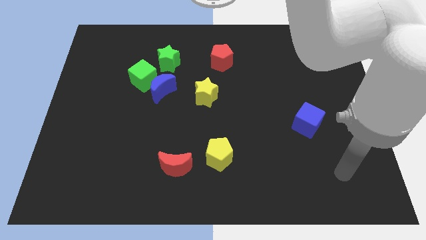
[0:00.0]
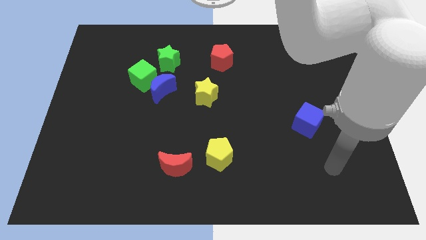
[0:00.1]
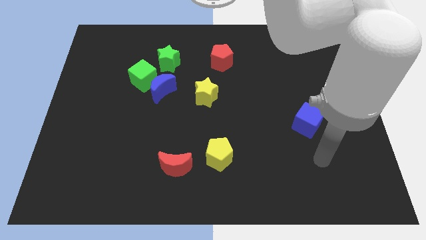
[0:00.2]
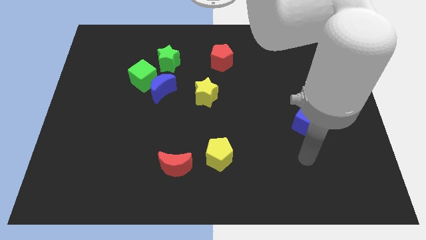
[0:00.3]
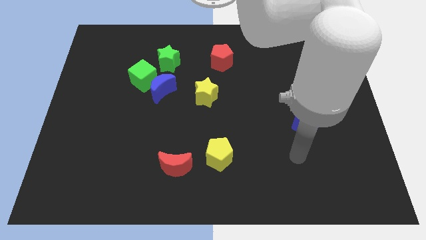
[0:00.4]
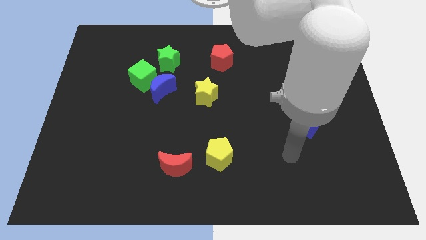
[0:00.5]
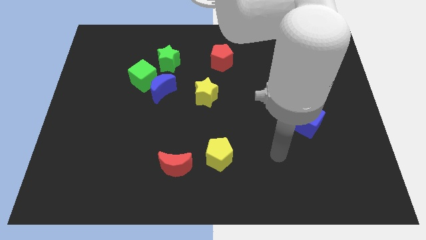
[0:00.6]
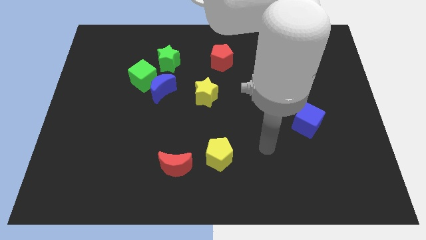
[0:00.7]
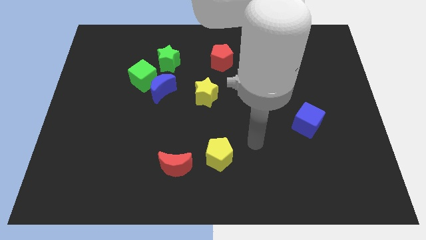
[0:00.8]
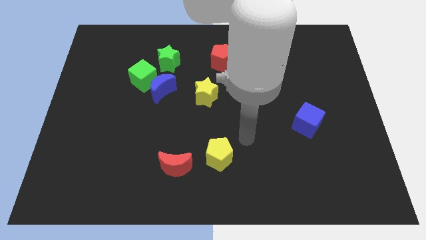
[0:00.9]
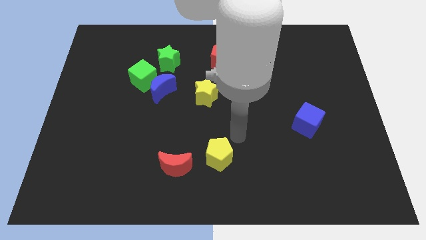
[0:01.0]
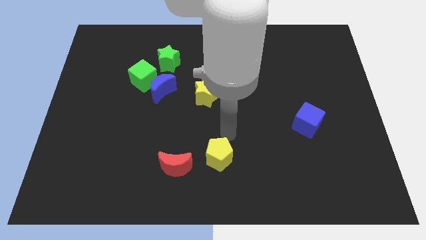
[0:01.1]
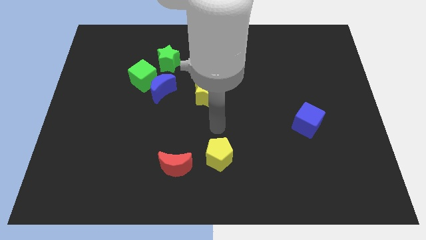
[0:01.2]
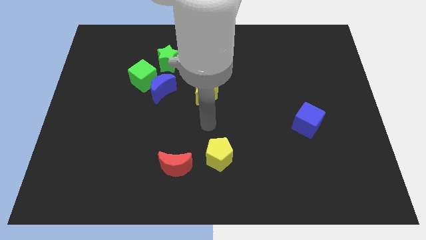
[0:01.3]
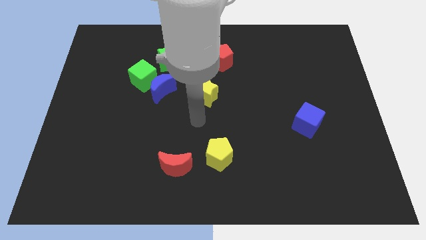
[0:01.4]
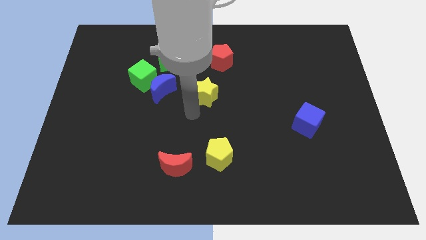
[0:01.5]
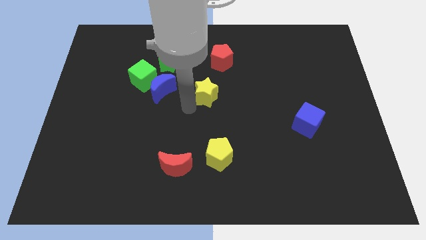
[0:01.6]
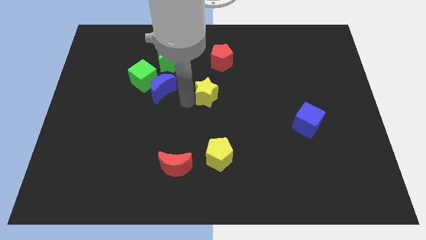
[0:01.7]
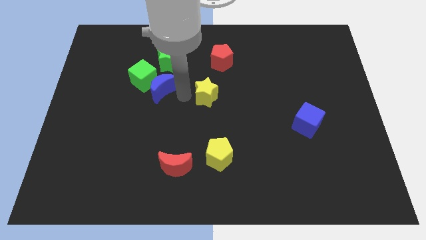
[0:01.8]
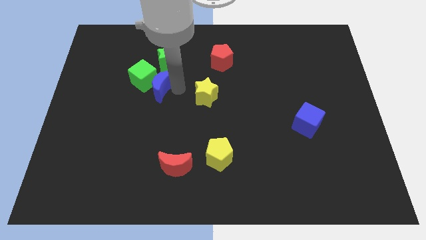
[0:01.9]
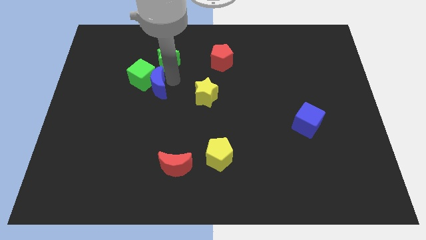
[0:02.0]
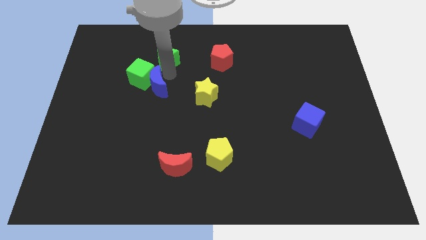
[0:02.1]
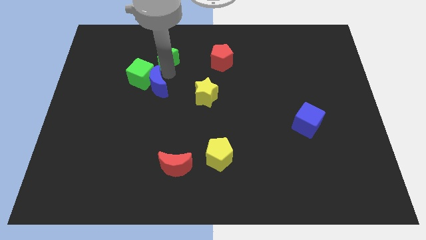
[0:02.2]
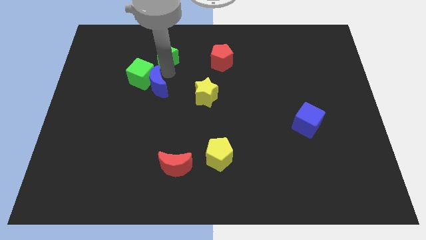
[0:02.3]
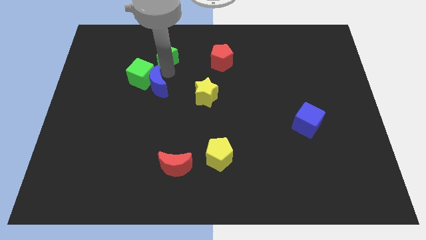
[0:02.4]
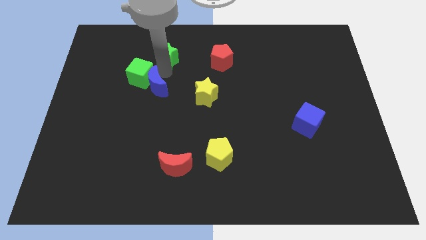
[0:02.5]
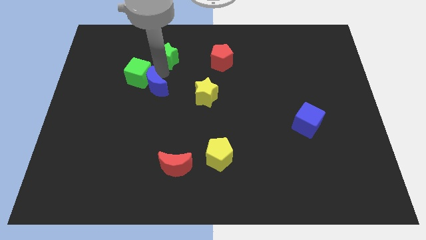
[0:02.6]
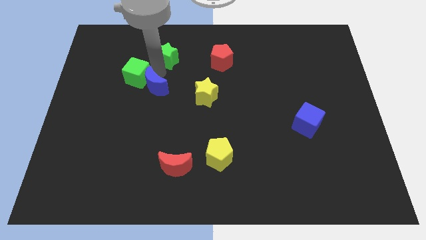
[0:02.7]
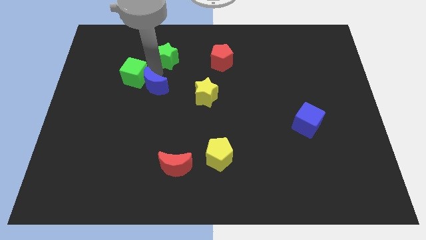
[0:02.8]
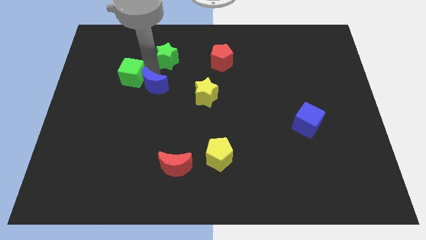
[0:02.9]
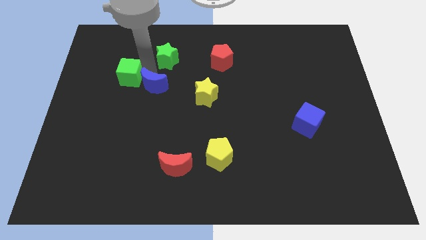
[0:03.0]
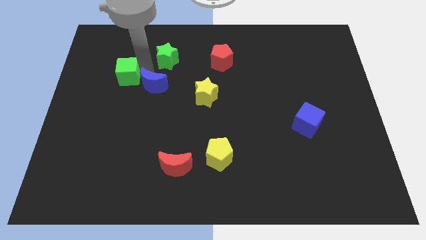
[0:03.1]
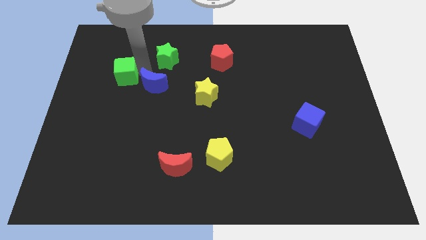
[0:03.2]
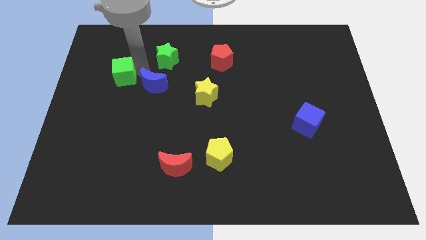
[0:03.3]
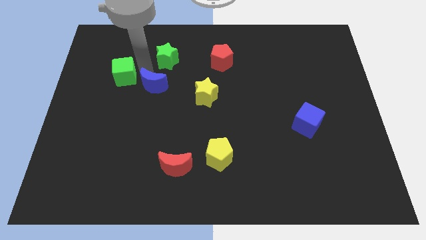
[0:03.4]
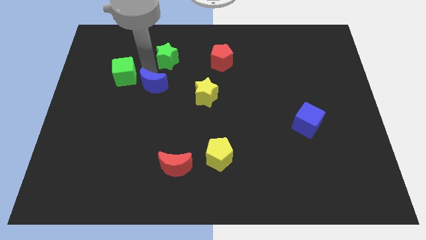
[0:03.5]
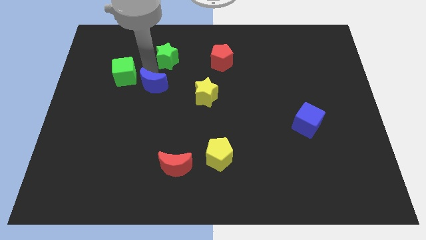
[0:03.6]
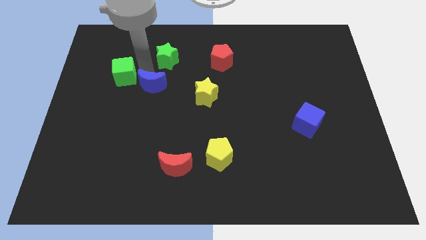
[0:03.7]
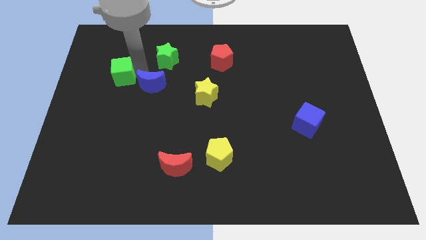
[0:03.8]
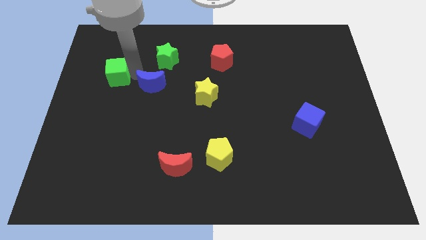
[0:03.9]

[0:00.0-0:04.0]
move the green cube away from the blue moon and green star

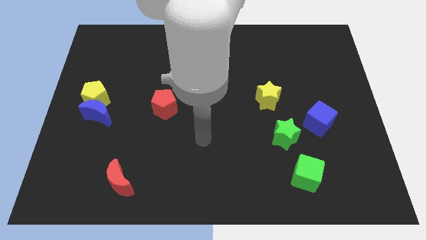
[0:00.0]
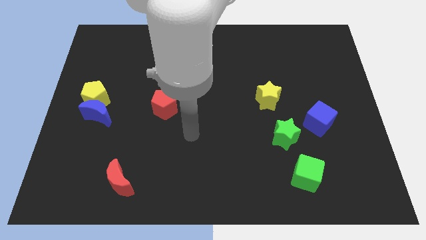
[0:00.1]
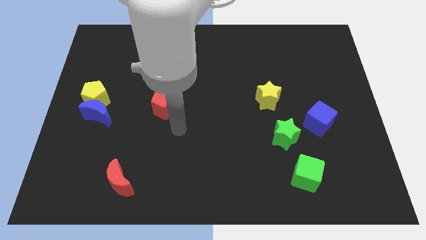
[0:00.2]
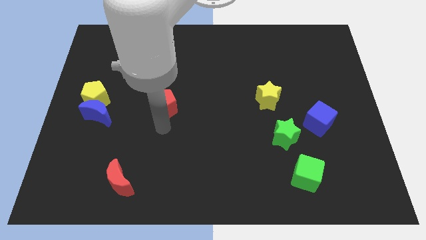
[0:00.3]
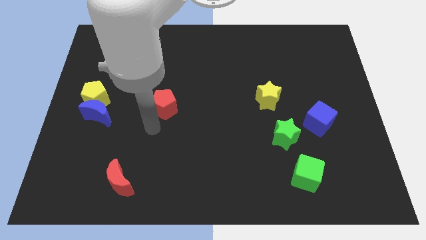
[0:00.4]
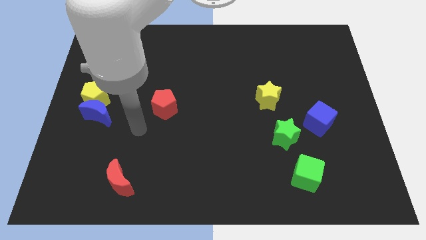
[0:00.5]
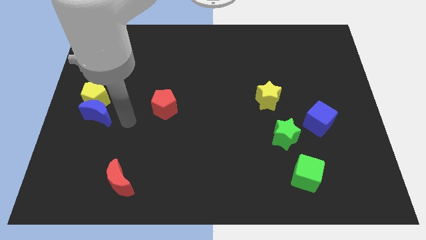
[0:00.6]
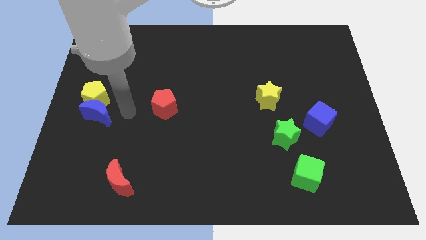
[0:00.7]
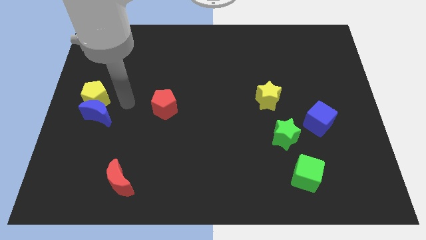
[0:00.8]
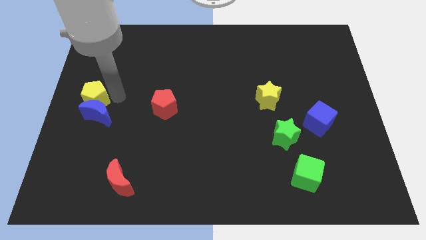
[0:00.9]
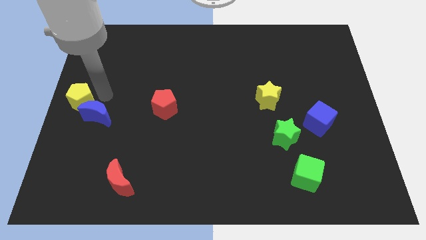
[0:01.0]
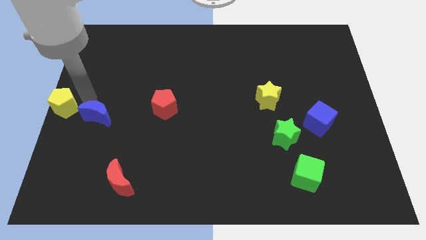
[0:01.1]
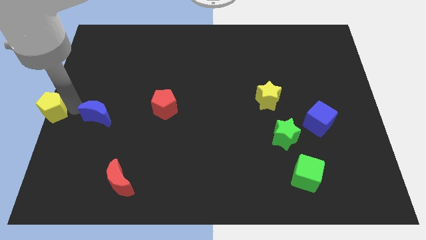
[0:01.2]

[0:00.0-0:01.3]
pull the blue moon apart from the yellow pentagon

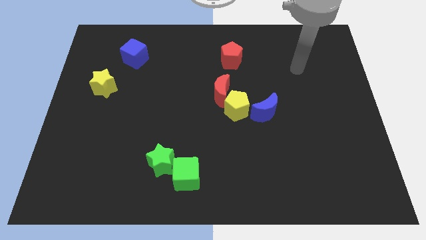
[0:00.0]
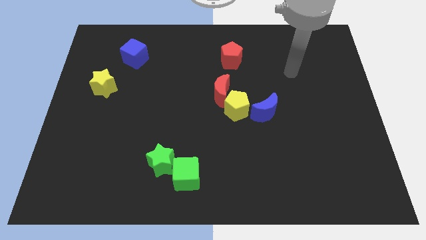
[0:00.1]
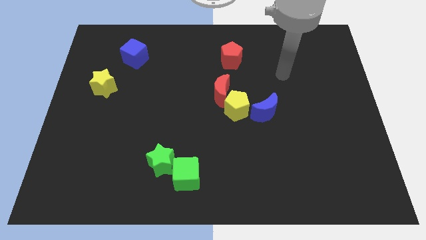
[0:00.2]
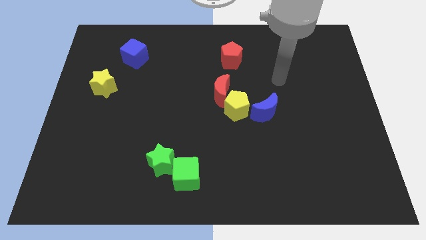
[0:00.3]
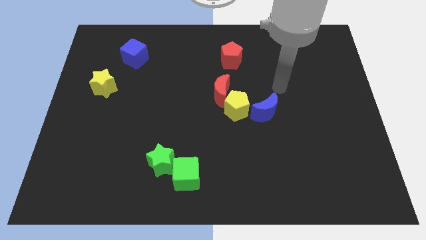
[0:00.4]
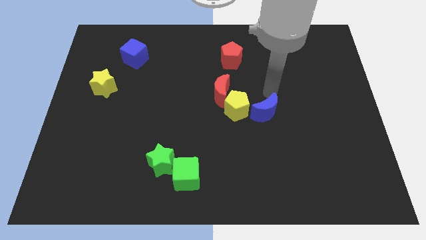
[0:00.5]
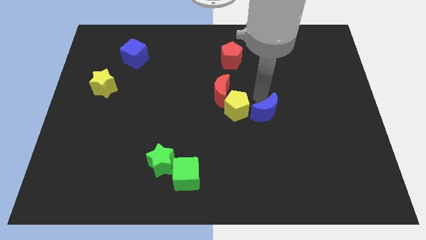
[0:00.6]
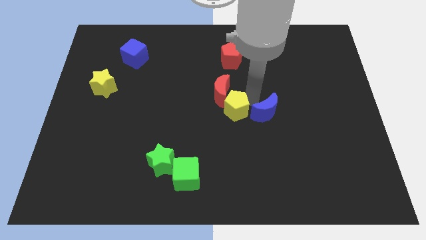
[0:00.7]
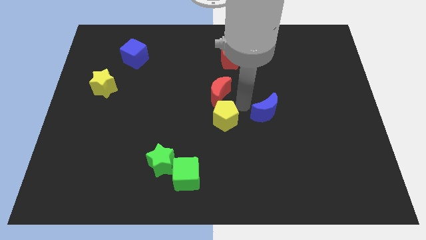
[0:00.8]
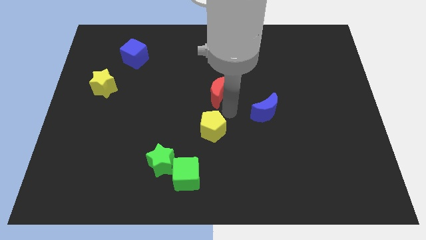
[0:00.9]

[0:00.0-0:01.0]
pull the red moon apart from the yellow pentagon

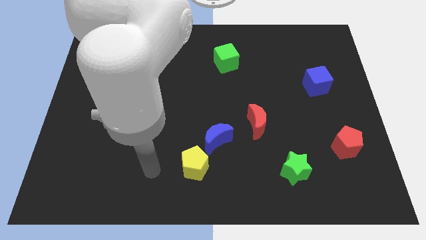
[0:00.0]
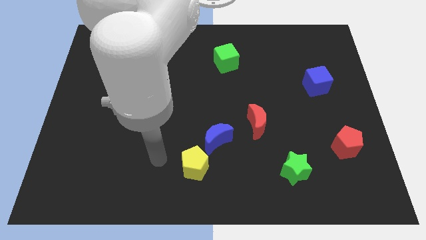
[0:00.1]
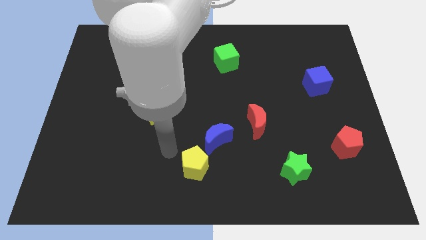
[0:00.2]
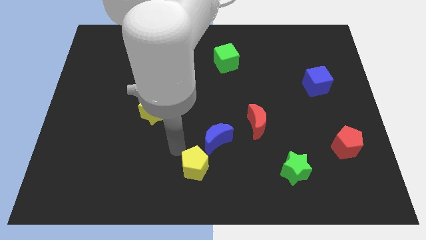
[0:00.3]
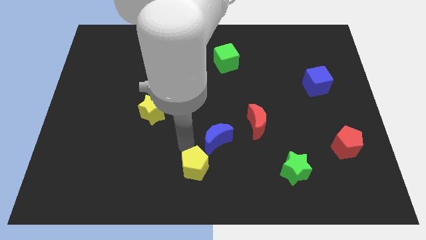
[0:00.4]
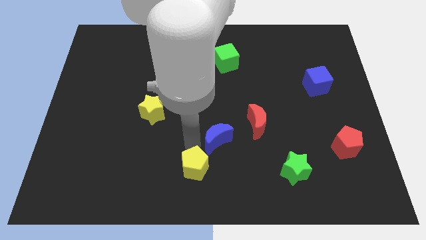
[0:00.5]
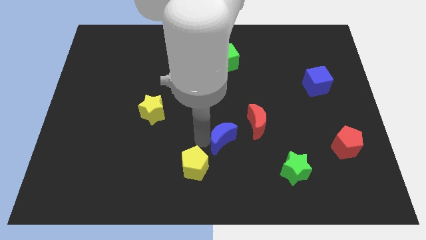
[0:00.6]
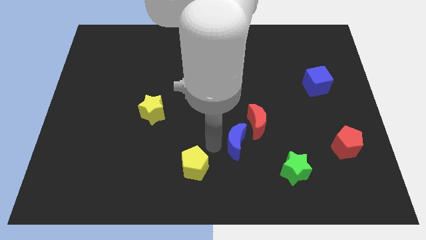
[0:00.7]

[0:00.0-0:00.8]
move the yellow pentagon away from the blue moon

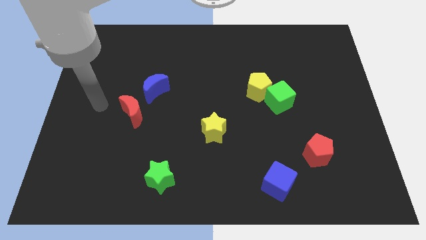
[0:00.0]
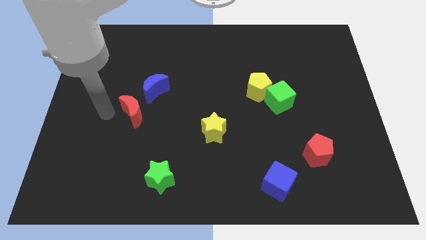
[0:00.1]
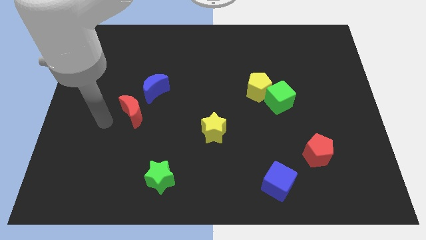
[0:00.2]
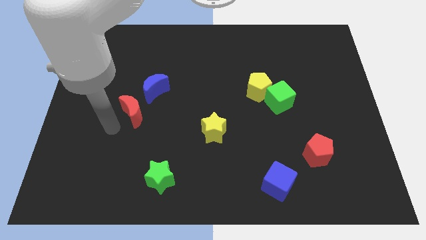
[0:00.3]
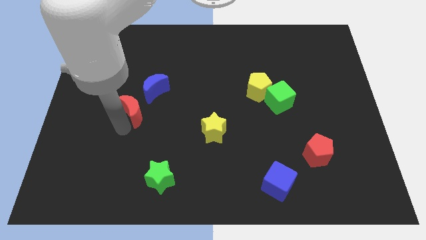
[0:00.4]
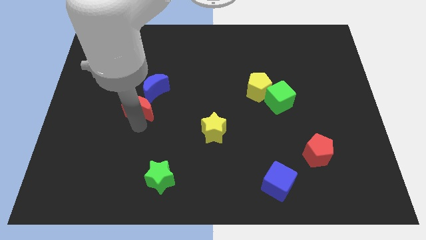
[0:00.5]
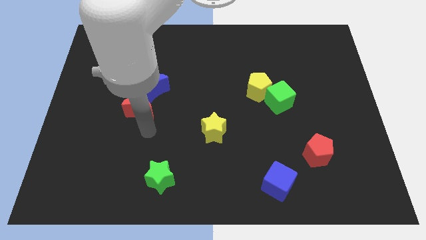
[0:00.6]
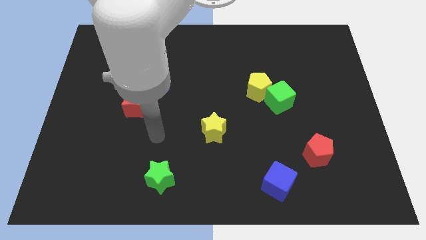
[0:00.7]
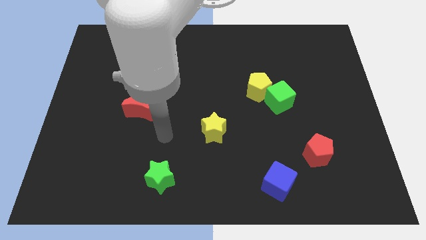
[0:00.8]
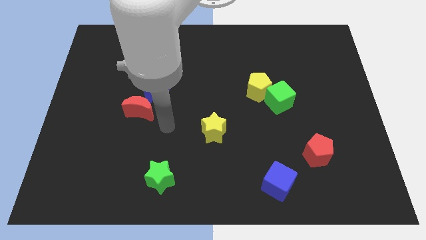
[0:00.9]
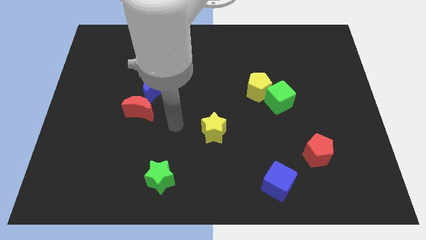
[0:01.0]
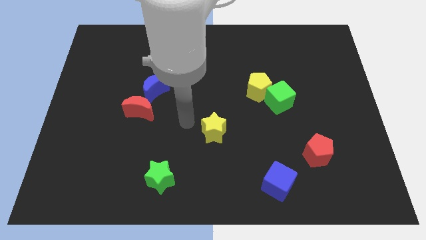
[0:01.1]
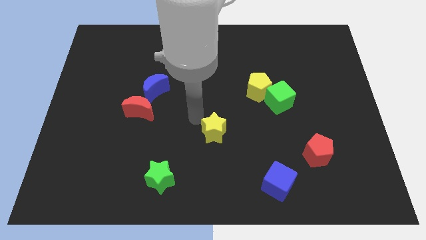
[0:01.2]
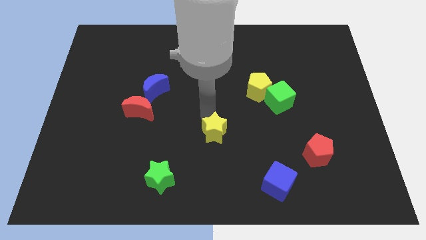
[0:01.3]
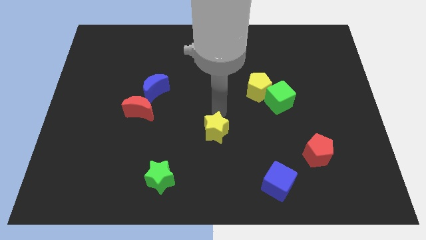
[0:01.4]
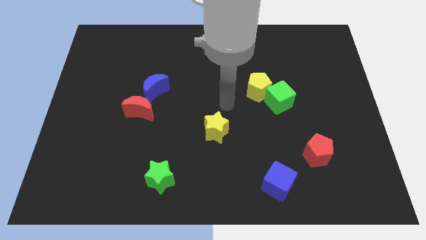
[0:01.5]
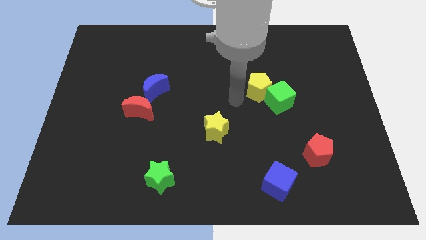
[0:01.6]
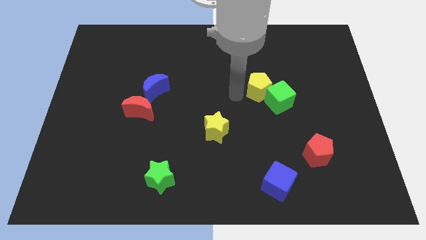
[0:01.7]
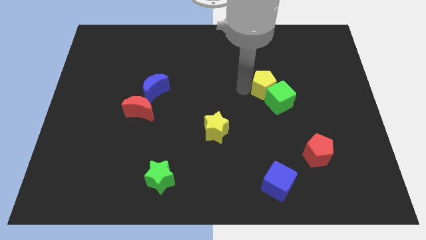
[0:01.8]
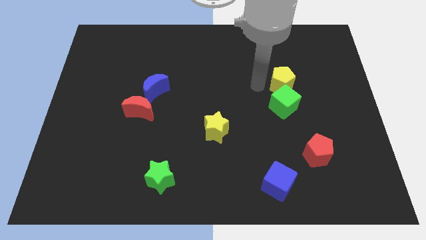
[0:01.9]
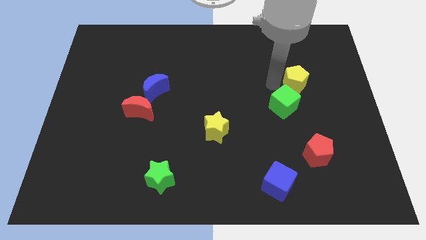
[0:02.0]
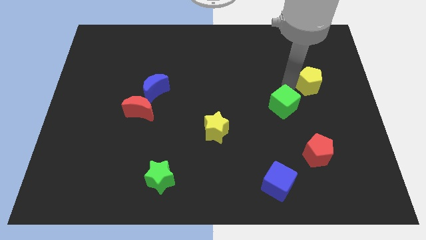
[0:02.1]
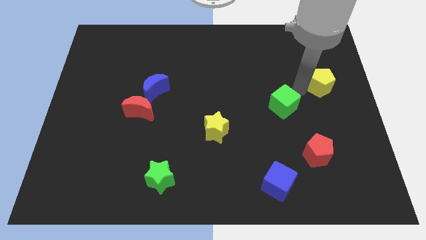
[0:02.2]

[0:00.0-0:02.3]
move the green cube away from the yellow pentagon
